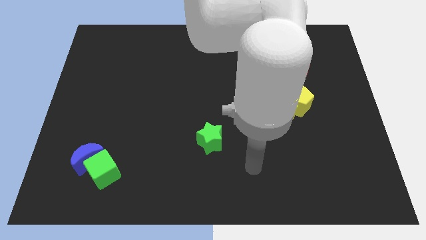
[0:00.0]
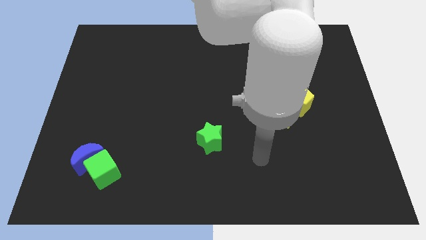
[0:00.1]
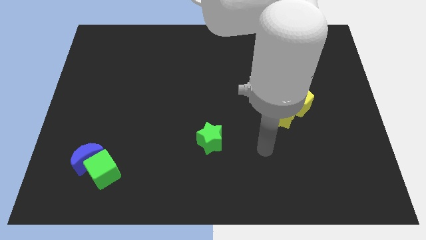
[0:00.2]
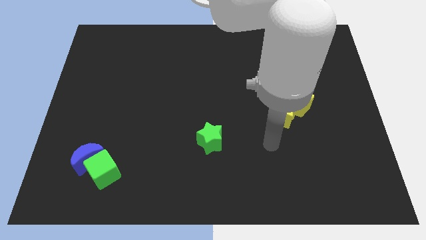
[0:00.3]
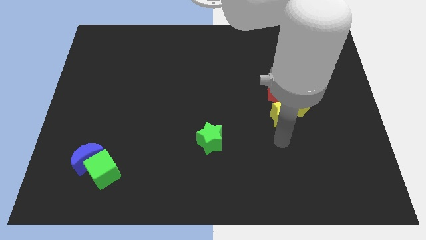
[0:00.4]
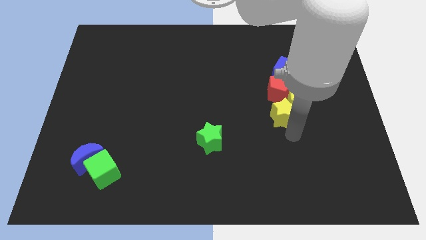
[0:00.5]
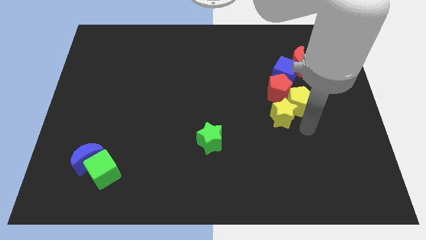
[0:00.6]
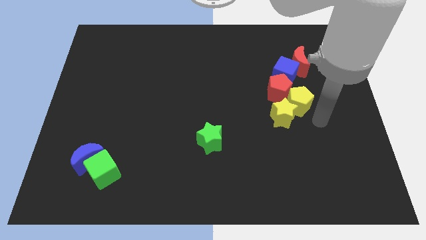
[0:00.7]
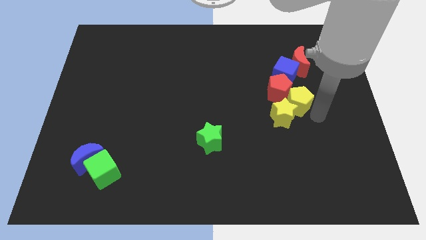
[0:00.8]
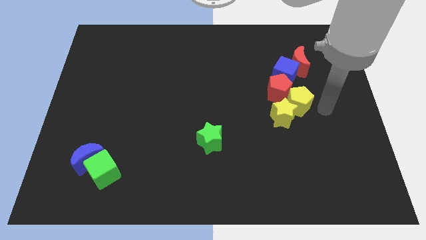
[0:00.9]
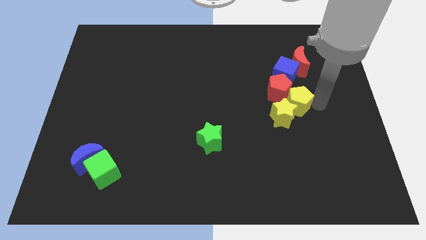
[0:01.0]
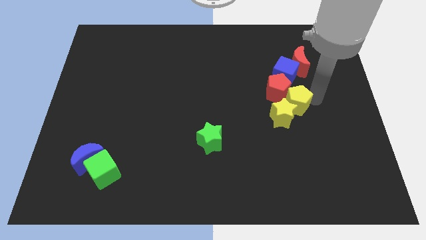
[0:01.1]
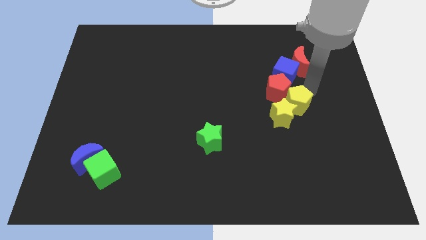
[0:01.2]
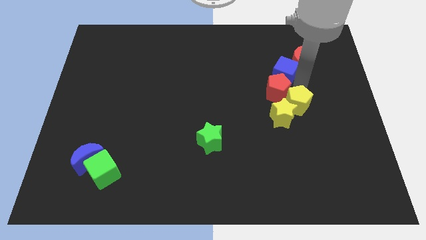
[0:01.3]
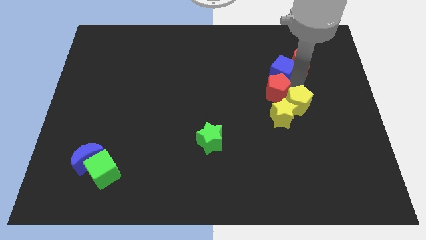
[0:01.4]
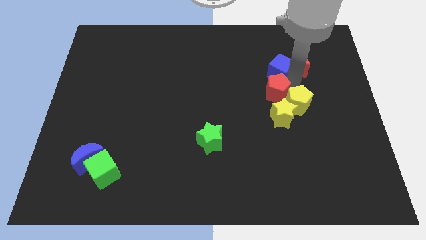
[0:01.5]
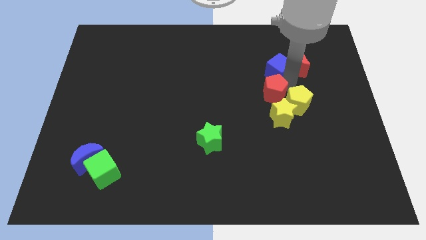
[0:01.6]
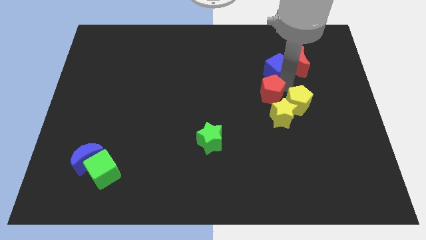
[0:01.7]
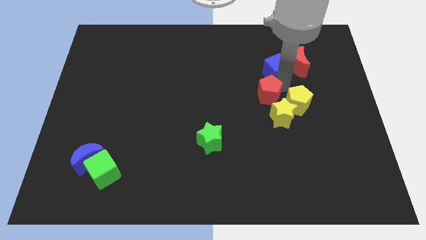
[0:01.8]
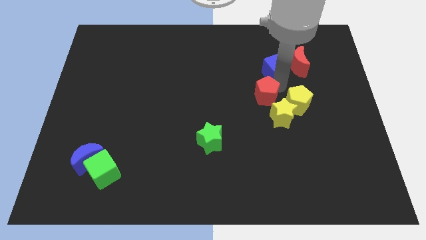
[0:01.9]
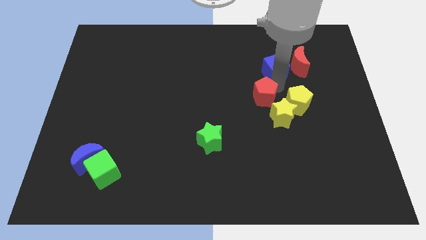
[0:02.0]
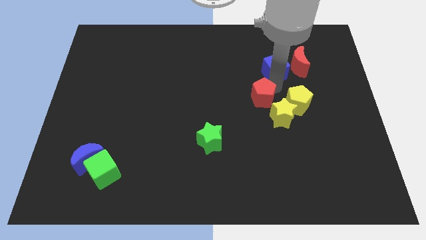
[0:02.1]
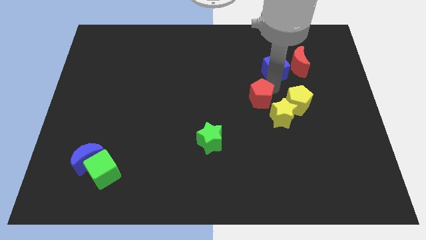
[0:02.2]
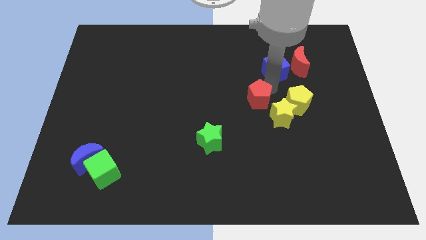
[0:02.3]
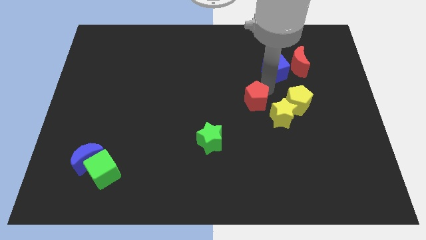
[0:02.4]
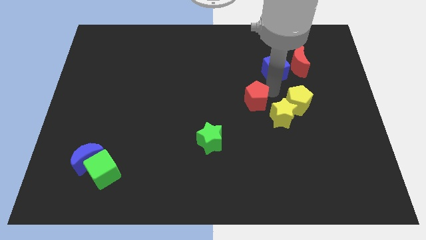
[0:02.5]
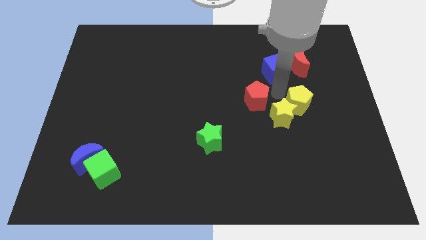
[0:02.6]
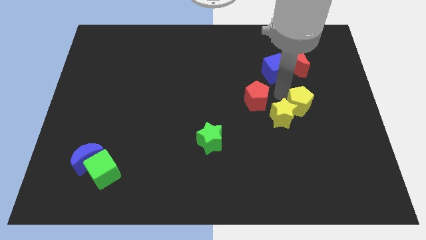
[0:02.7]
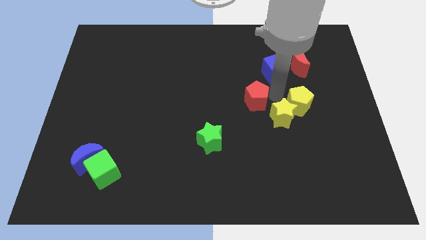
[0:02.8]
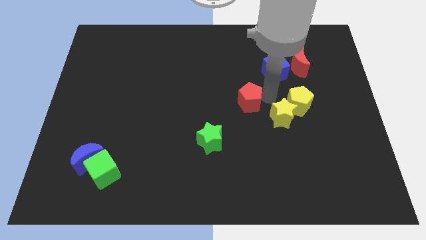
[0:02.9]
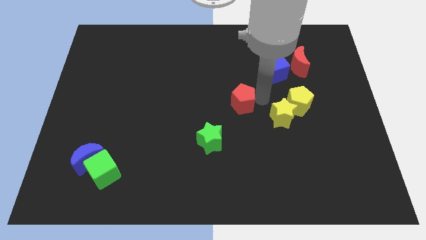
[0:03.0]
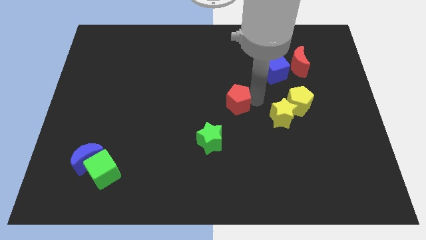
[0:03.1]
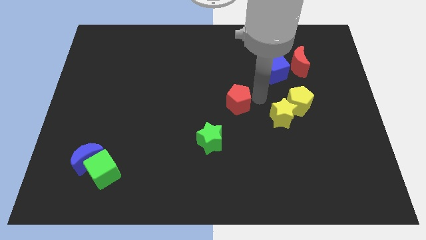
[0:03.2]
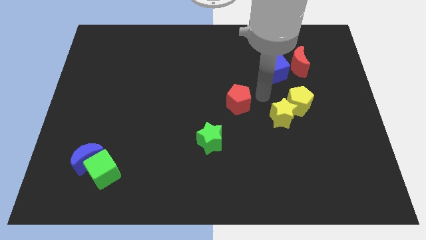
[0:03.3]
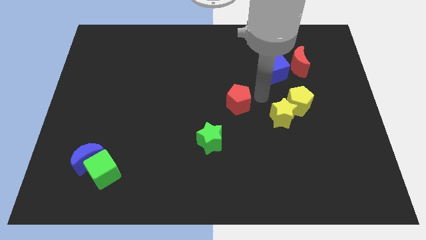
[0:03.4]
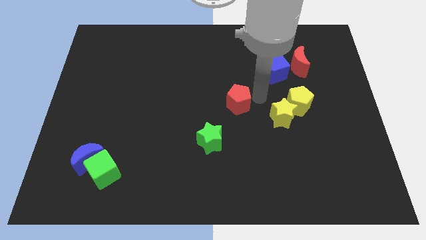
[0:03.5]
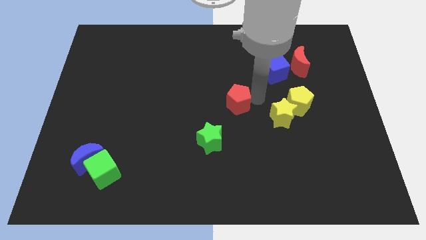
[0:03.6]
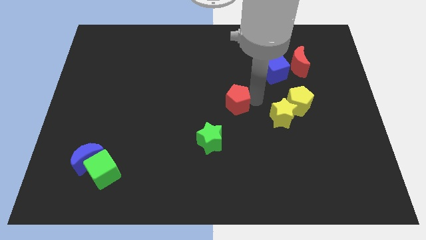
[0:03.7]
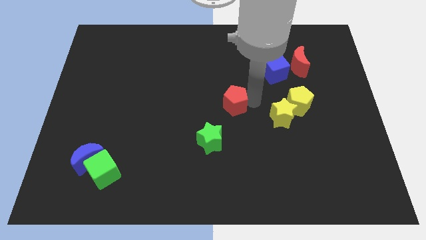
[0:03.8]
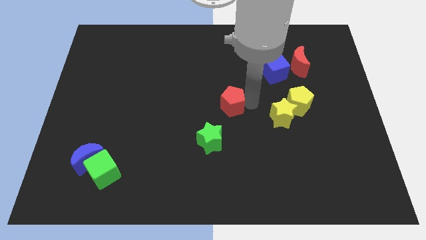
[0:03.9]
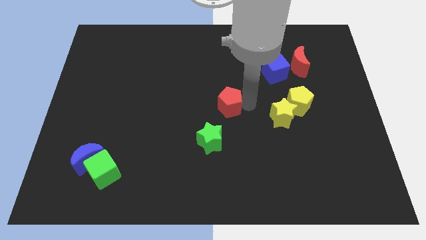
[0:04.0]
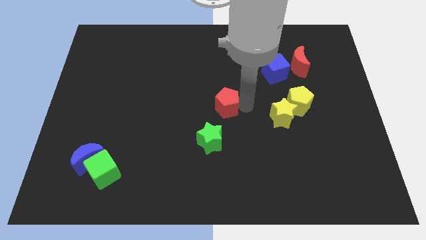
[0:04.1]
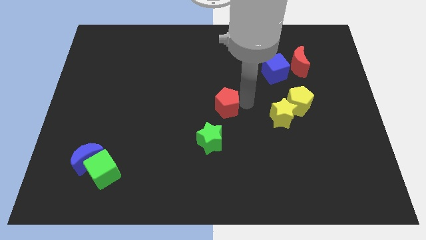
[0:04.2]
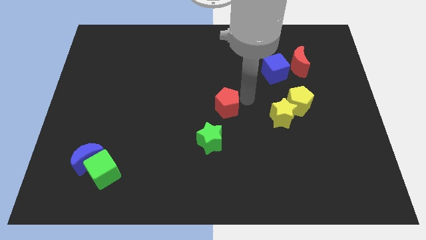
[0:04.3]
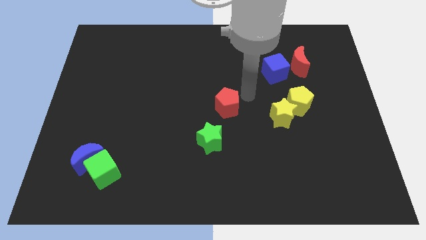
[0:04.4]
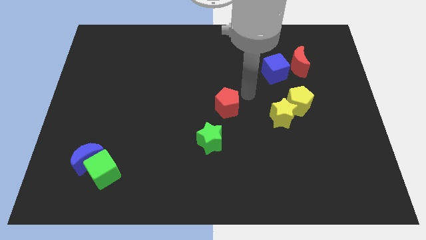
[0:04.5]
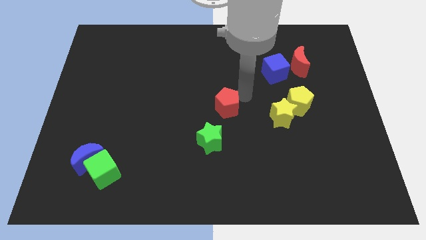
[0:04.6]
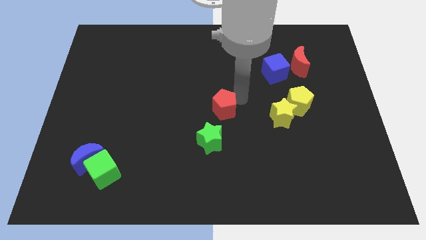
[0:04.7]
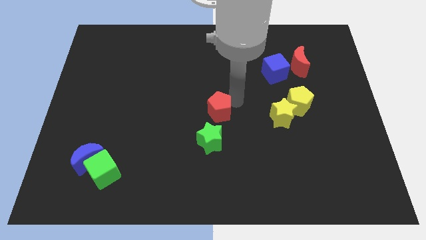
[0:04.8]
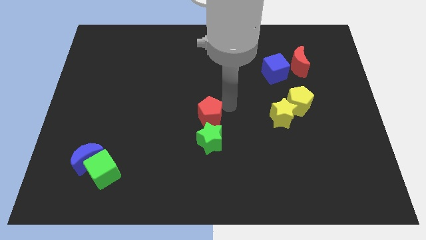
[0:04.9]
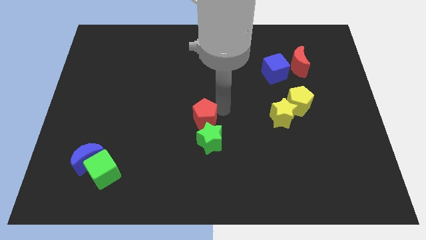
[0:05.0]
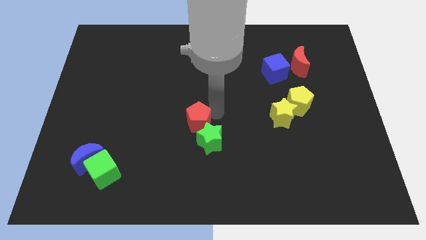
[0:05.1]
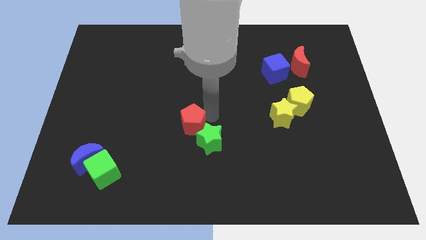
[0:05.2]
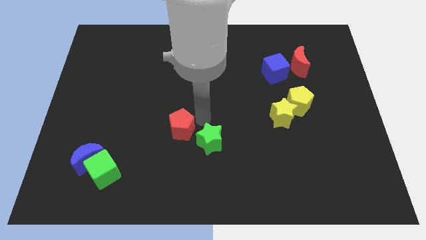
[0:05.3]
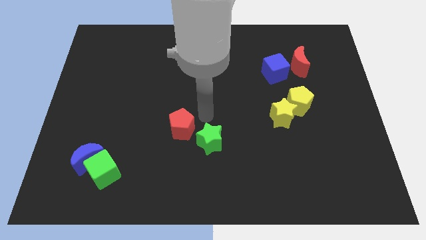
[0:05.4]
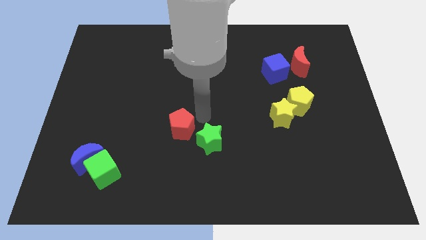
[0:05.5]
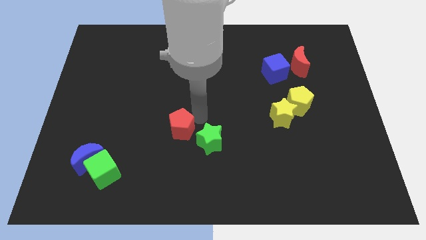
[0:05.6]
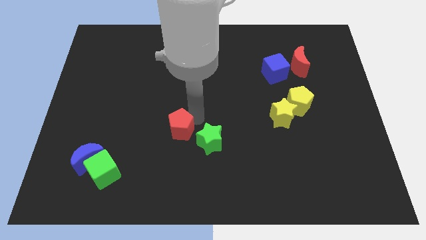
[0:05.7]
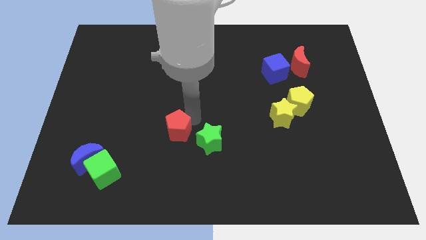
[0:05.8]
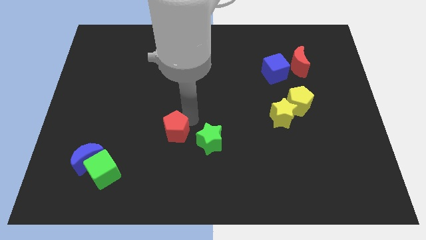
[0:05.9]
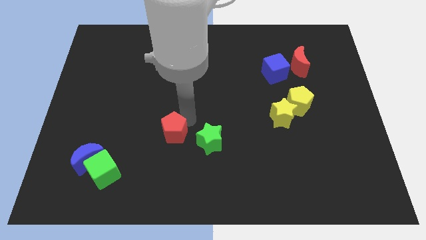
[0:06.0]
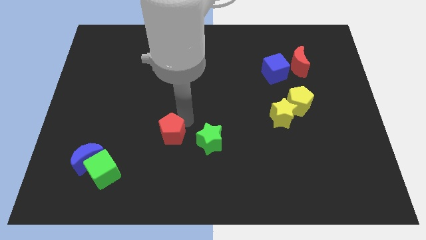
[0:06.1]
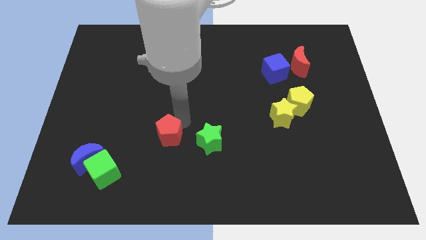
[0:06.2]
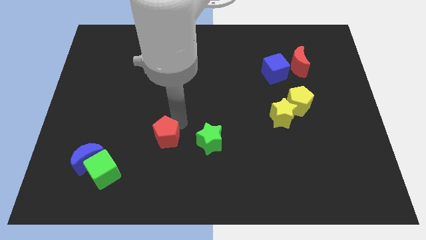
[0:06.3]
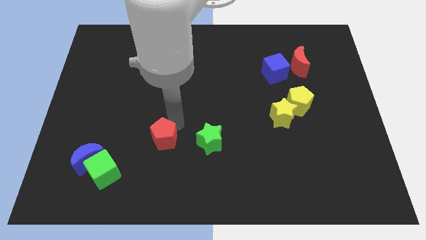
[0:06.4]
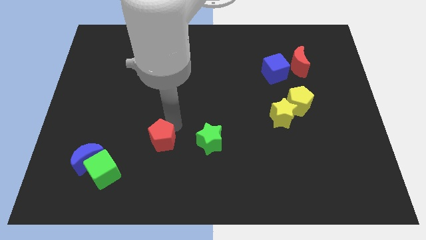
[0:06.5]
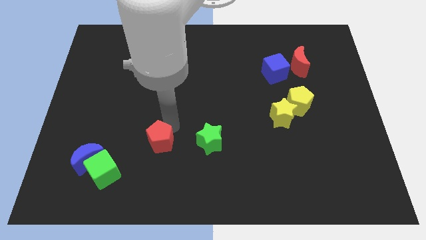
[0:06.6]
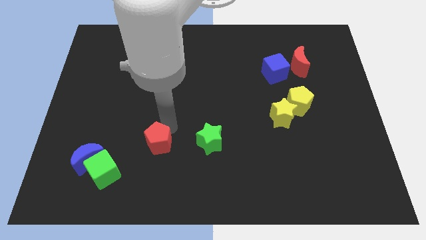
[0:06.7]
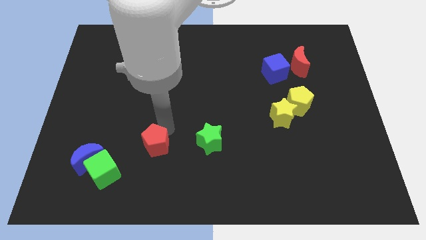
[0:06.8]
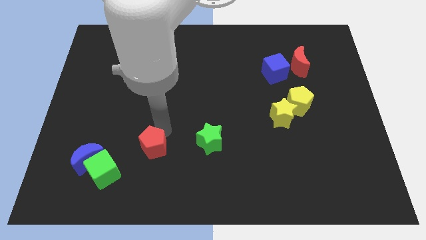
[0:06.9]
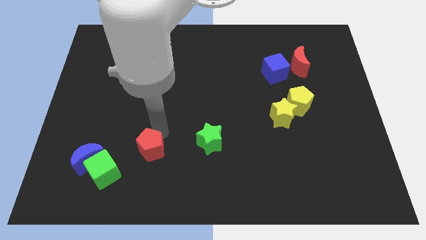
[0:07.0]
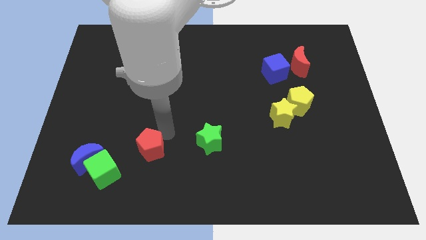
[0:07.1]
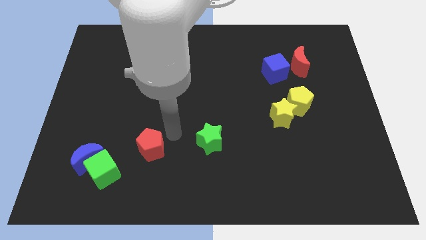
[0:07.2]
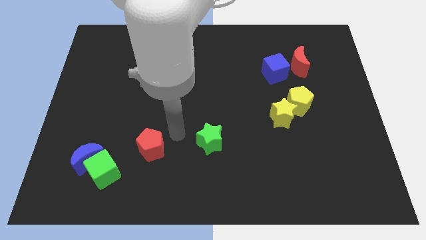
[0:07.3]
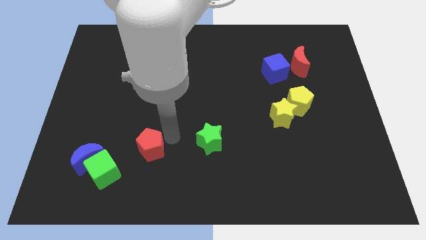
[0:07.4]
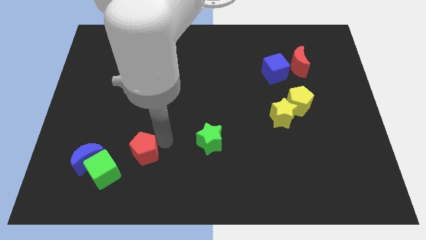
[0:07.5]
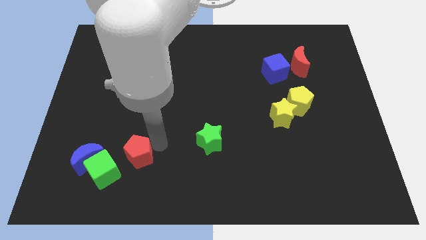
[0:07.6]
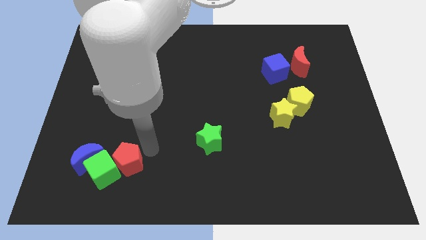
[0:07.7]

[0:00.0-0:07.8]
slide the red pentagon next to the green cube
